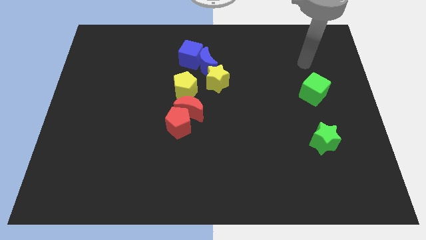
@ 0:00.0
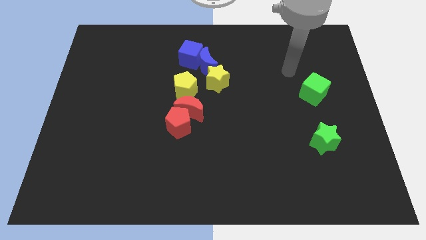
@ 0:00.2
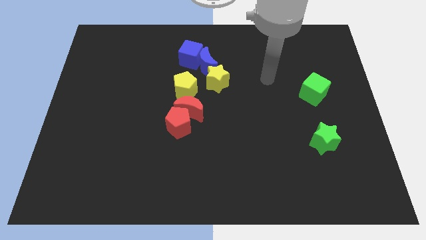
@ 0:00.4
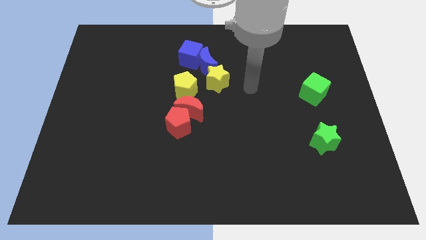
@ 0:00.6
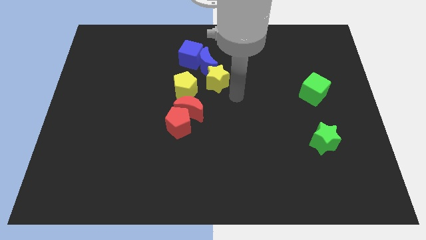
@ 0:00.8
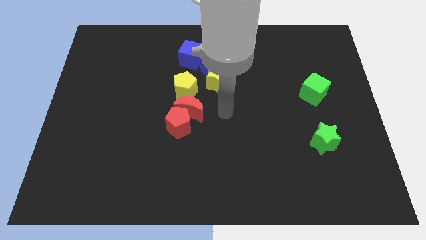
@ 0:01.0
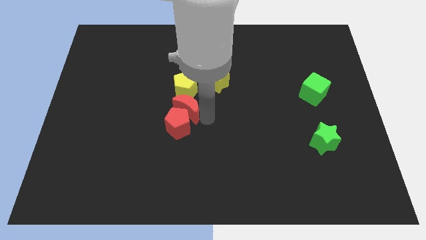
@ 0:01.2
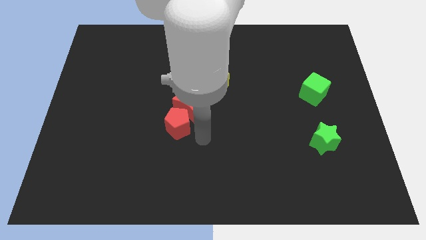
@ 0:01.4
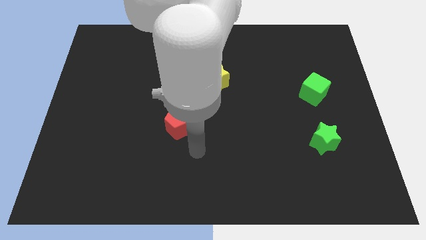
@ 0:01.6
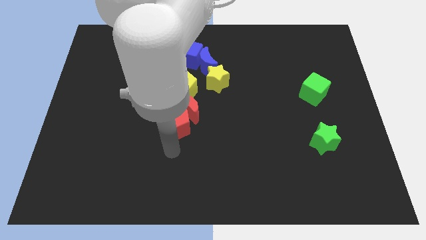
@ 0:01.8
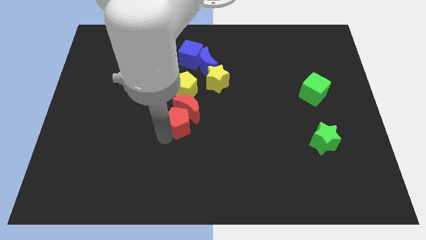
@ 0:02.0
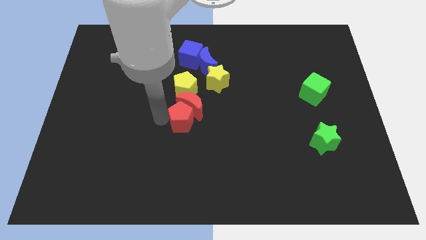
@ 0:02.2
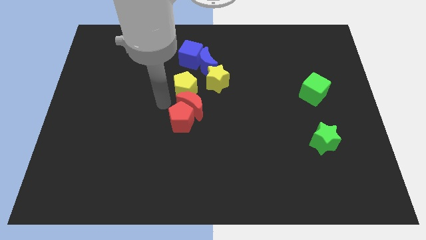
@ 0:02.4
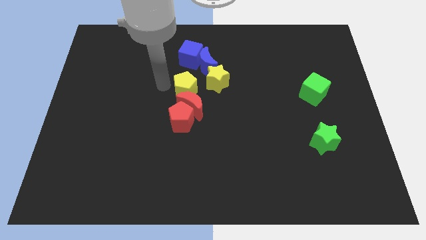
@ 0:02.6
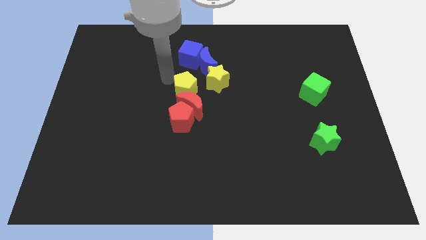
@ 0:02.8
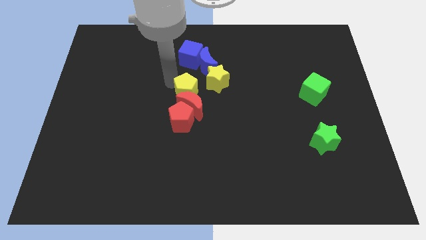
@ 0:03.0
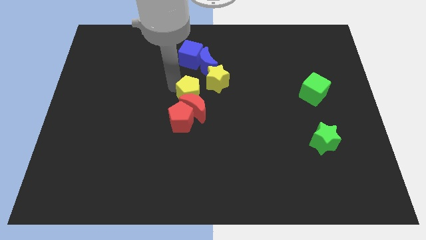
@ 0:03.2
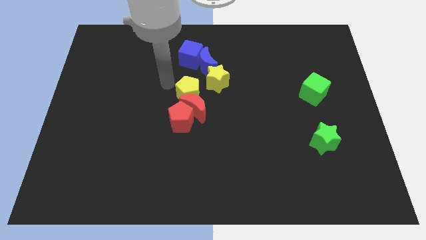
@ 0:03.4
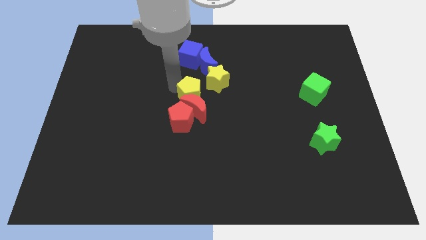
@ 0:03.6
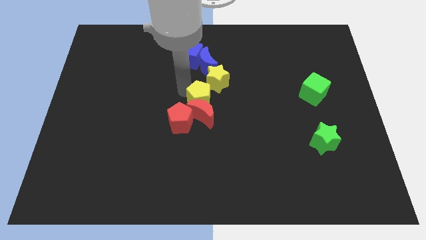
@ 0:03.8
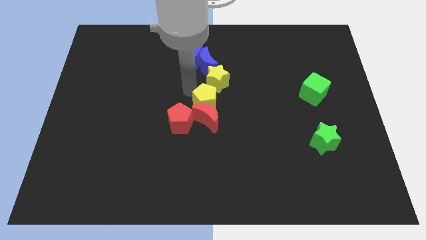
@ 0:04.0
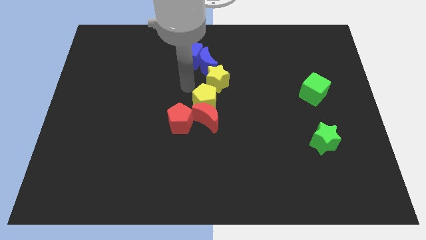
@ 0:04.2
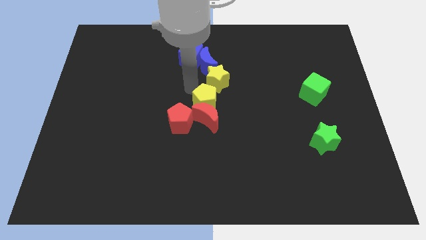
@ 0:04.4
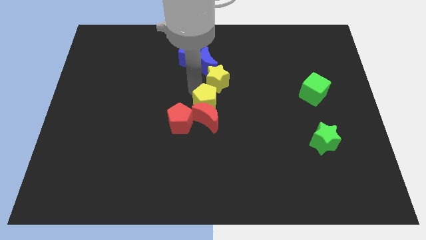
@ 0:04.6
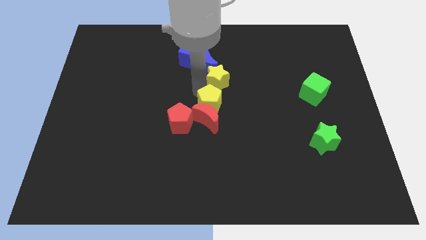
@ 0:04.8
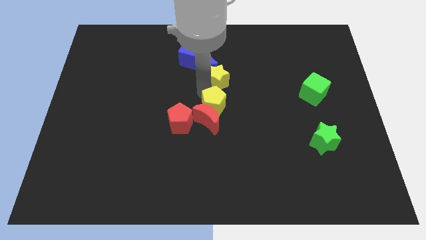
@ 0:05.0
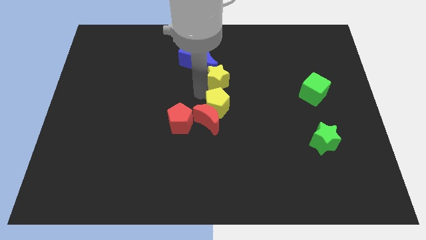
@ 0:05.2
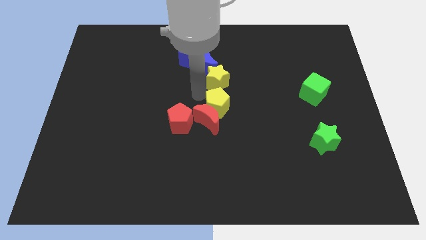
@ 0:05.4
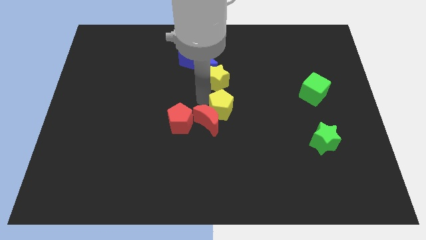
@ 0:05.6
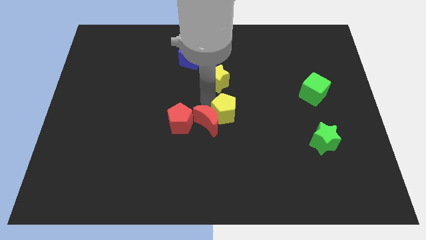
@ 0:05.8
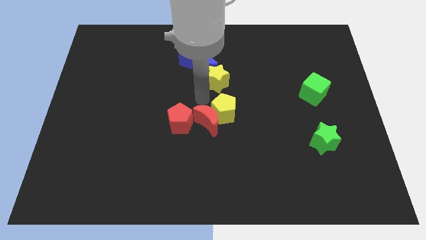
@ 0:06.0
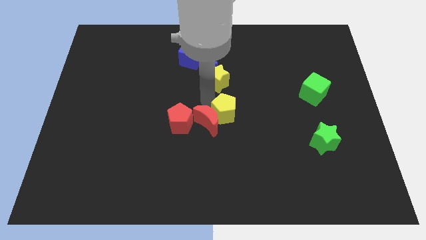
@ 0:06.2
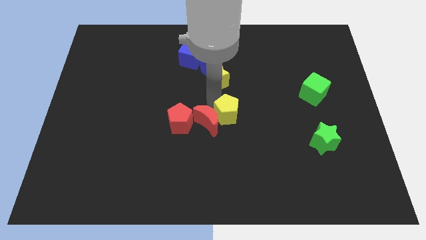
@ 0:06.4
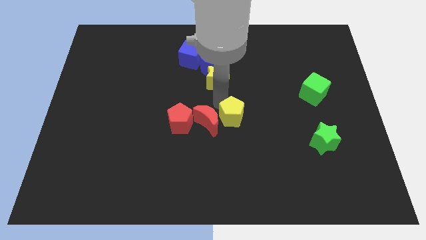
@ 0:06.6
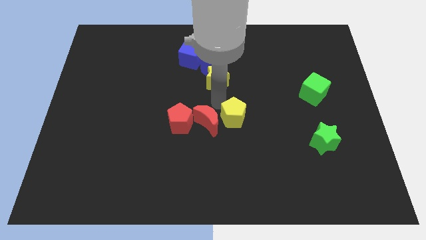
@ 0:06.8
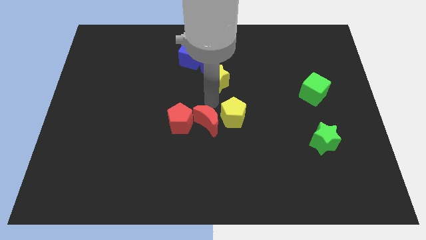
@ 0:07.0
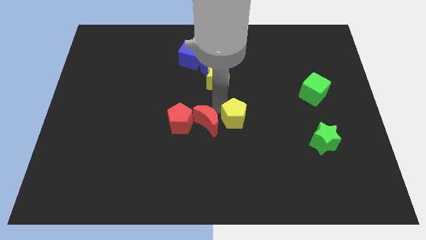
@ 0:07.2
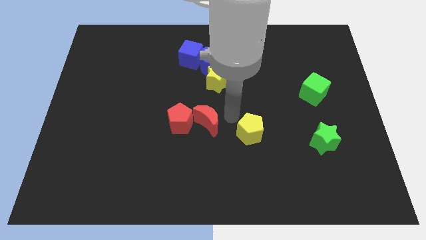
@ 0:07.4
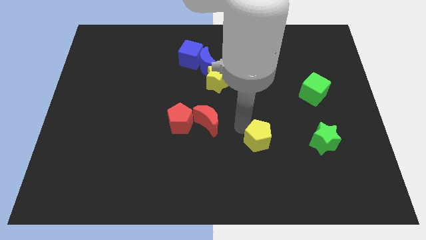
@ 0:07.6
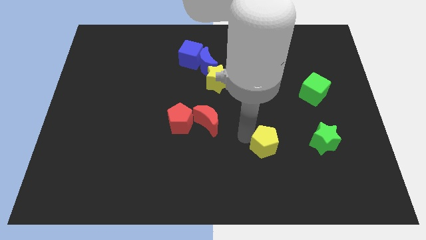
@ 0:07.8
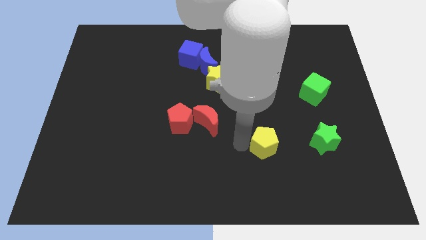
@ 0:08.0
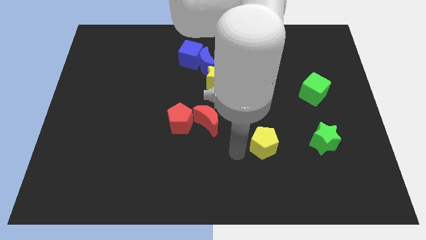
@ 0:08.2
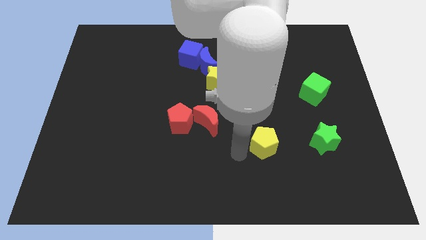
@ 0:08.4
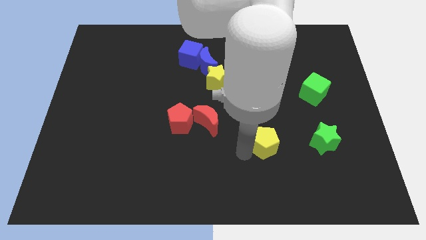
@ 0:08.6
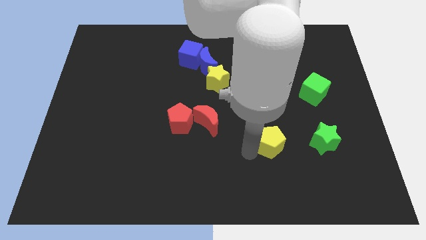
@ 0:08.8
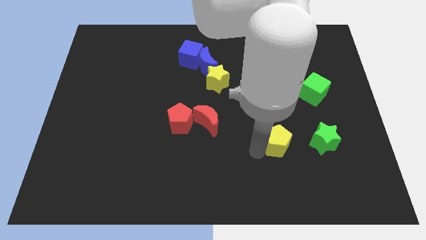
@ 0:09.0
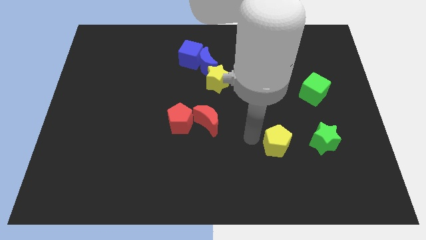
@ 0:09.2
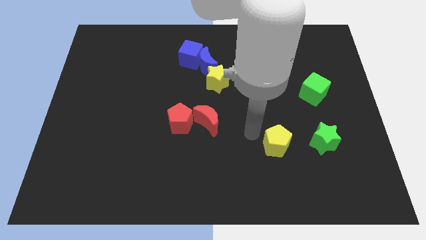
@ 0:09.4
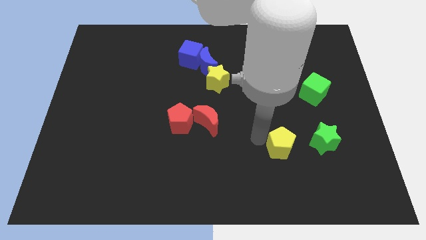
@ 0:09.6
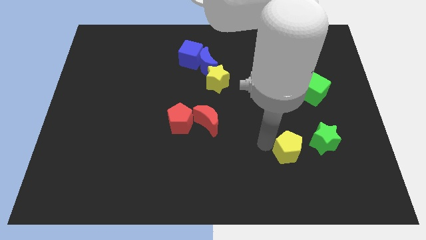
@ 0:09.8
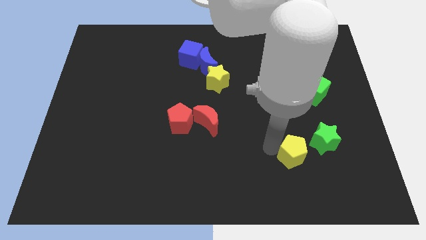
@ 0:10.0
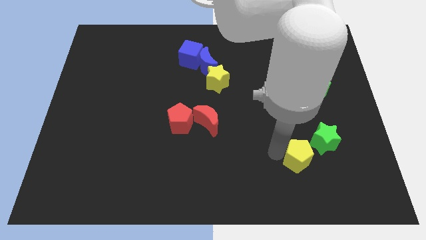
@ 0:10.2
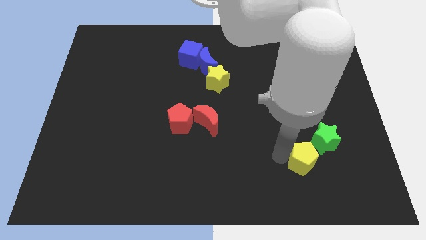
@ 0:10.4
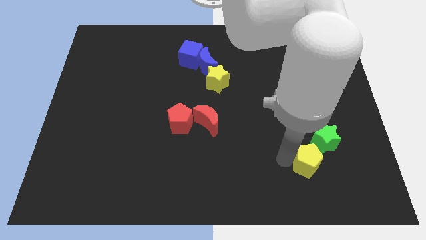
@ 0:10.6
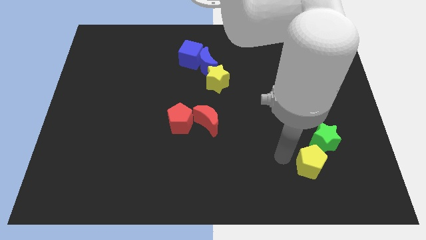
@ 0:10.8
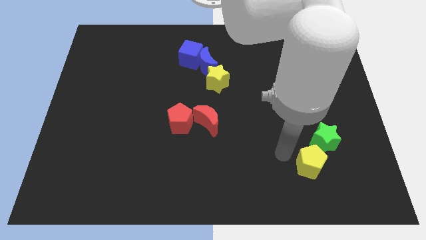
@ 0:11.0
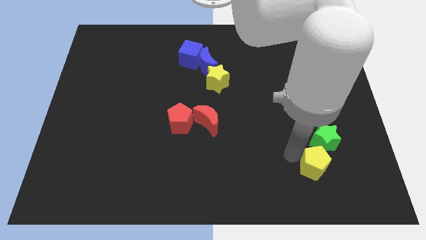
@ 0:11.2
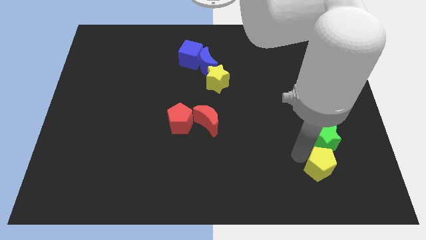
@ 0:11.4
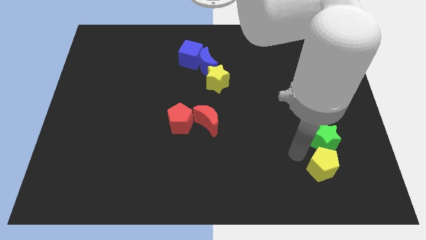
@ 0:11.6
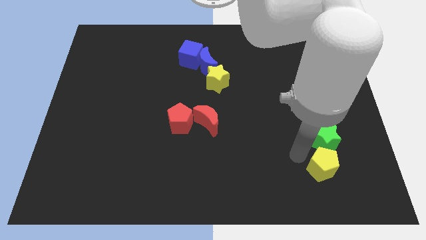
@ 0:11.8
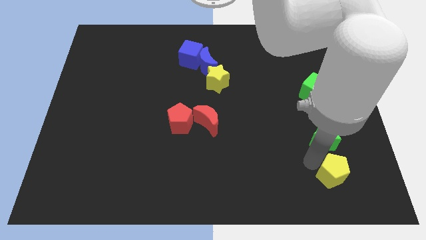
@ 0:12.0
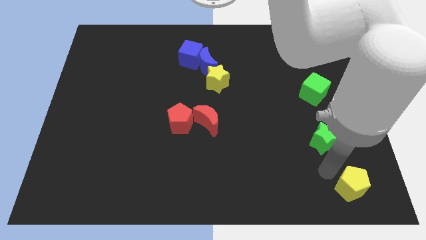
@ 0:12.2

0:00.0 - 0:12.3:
put the yellow pentagon to the bottom right

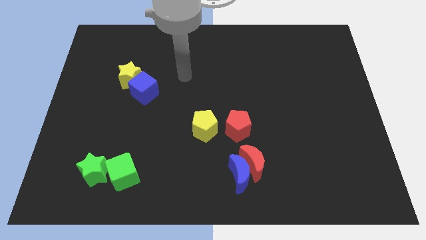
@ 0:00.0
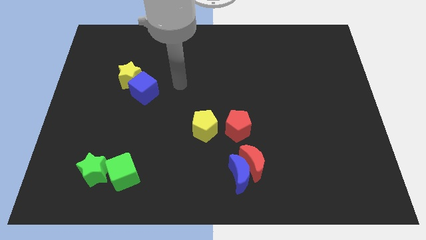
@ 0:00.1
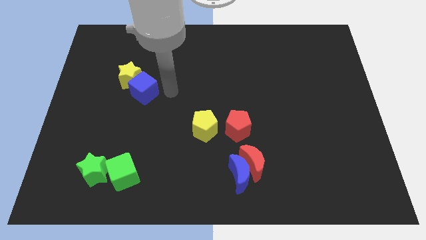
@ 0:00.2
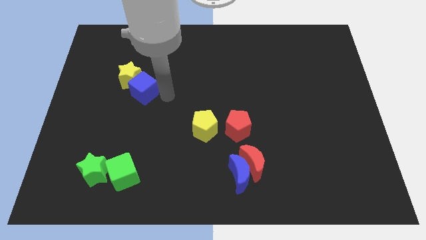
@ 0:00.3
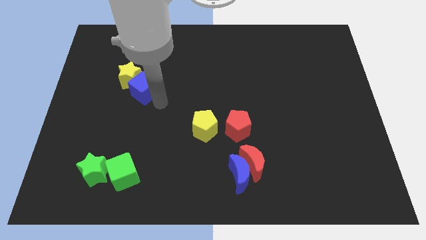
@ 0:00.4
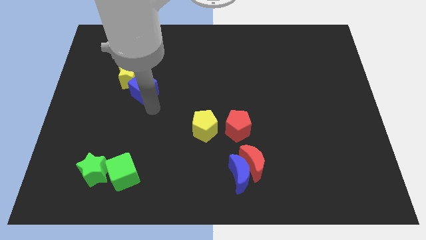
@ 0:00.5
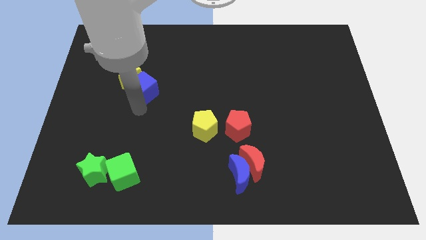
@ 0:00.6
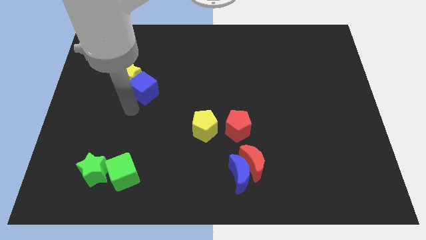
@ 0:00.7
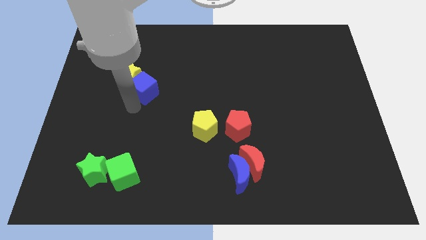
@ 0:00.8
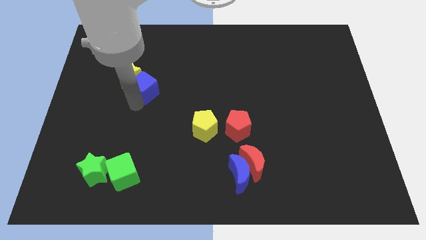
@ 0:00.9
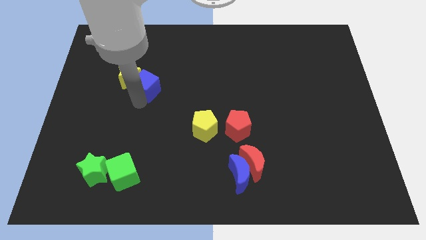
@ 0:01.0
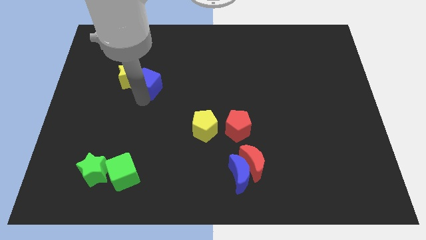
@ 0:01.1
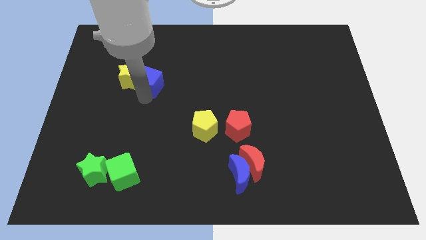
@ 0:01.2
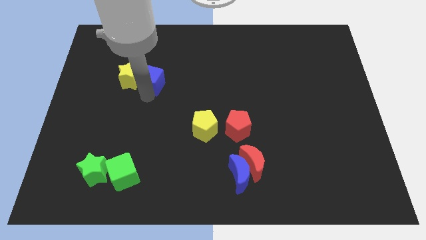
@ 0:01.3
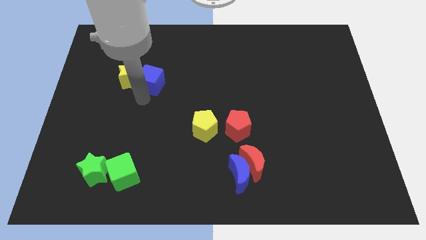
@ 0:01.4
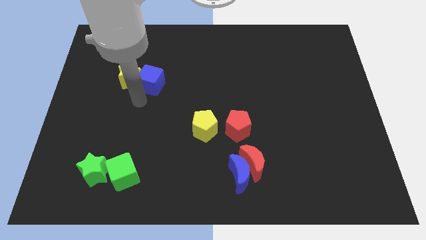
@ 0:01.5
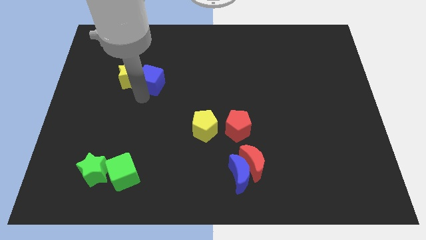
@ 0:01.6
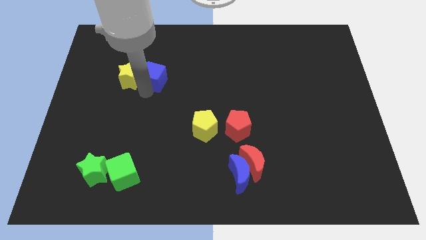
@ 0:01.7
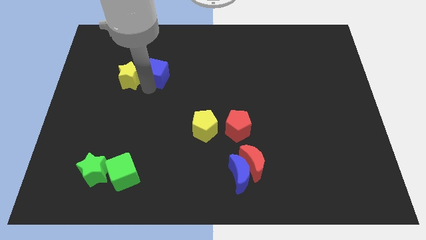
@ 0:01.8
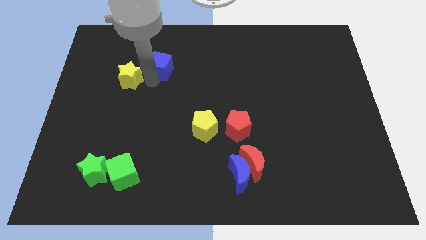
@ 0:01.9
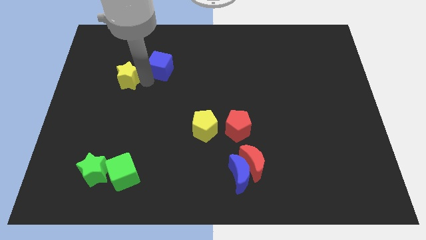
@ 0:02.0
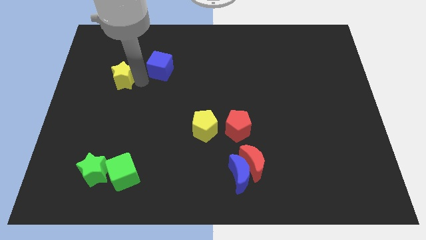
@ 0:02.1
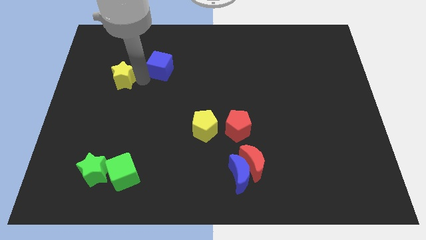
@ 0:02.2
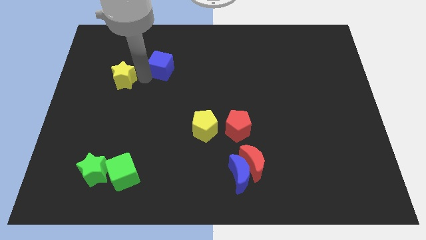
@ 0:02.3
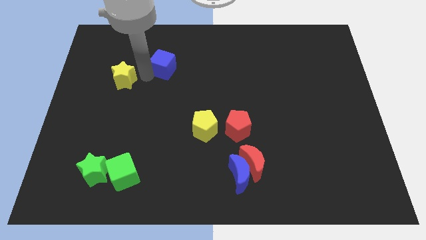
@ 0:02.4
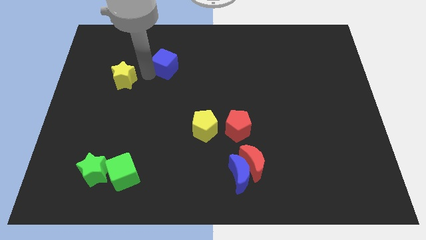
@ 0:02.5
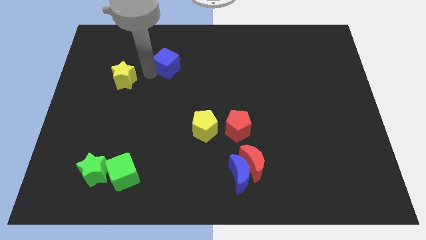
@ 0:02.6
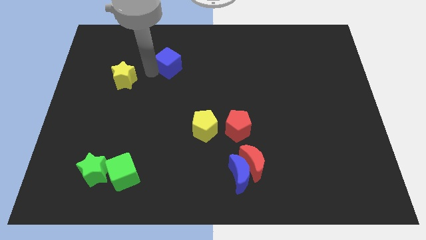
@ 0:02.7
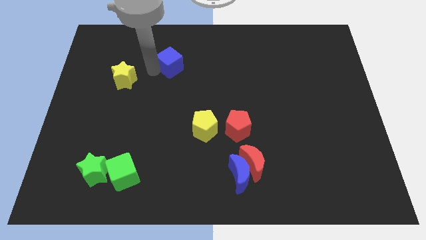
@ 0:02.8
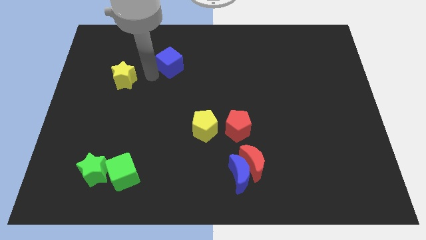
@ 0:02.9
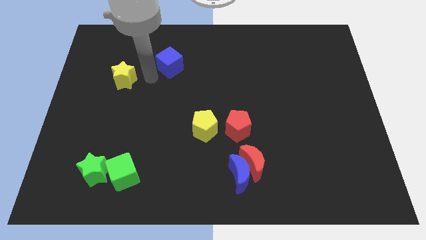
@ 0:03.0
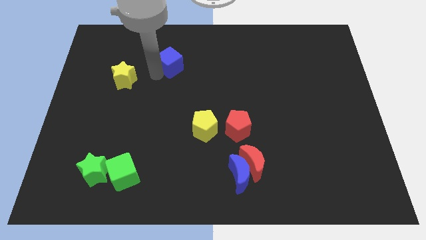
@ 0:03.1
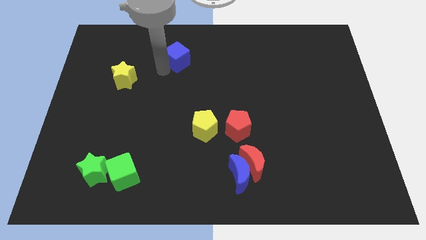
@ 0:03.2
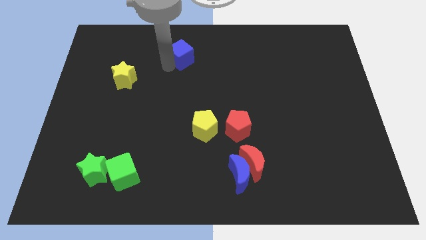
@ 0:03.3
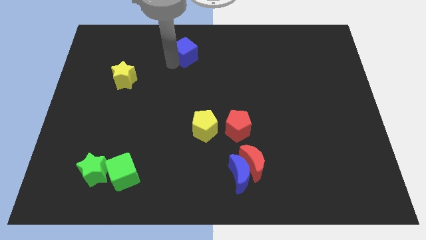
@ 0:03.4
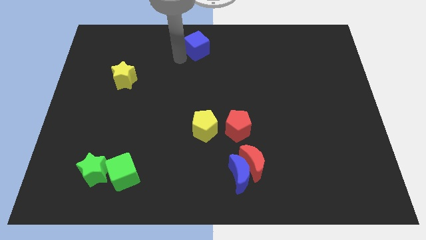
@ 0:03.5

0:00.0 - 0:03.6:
move the blue cube to the towards your base
